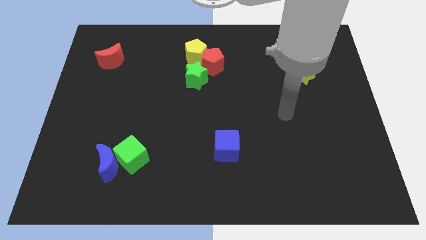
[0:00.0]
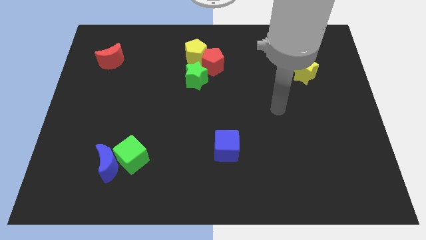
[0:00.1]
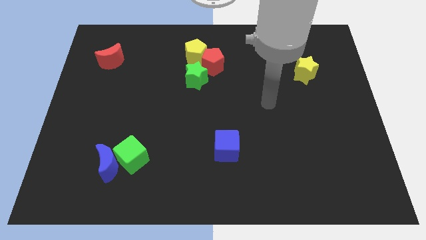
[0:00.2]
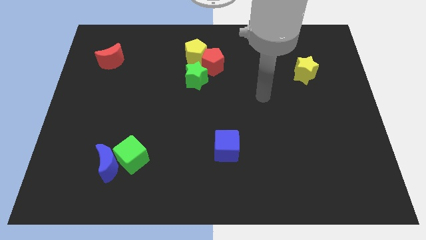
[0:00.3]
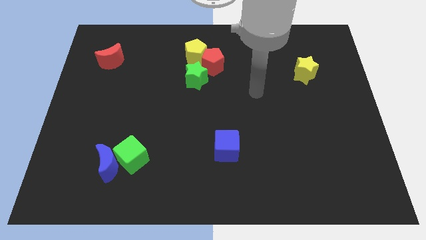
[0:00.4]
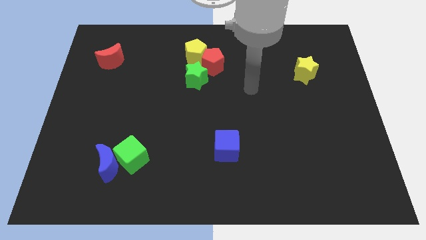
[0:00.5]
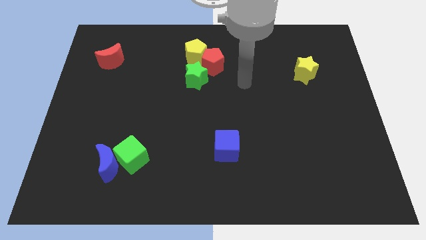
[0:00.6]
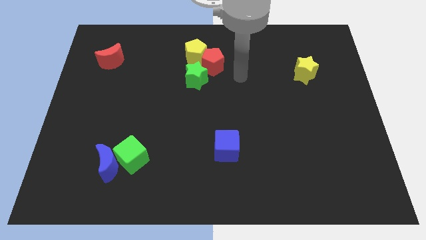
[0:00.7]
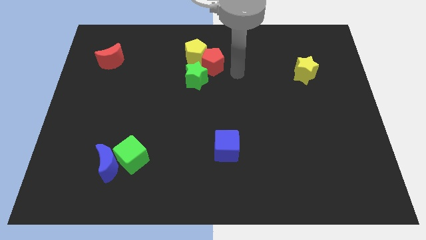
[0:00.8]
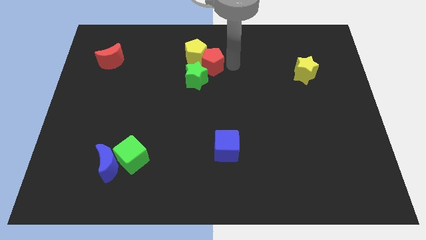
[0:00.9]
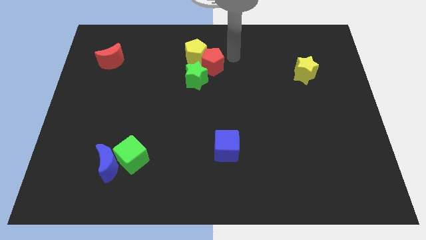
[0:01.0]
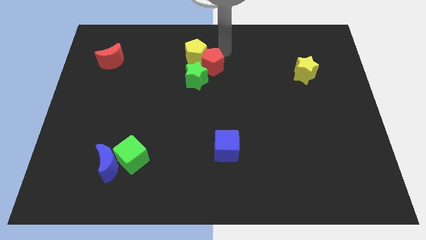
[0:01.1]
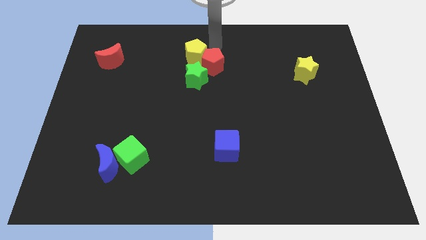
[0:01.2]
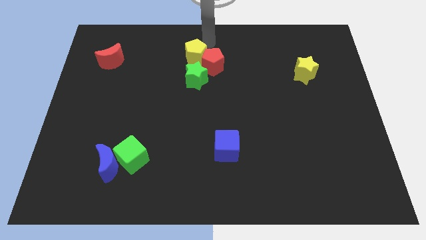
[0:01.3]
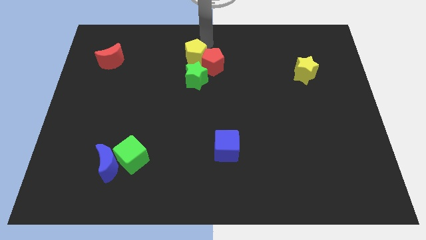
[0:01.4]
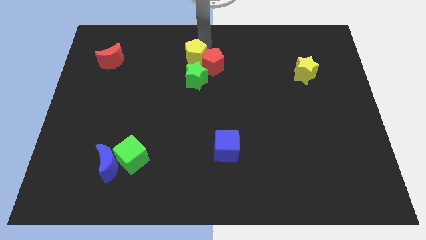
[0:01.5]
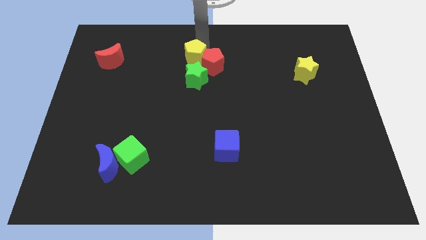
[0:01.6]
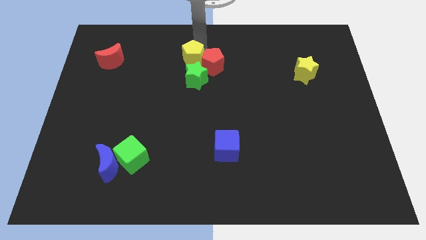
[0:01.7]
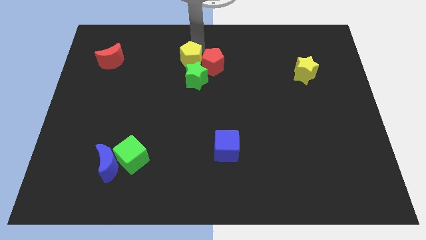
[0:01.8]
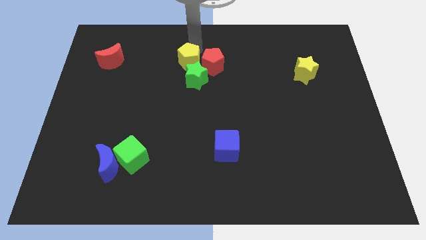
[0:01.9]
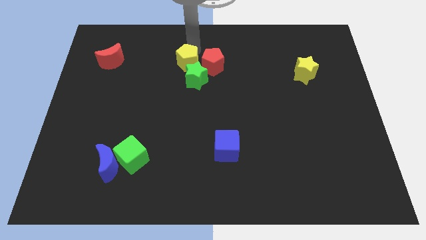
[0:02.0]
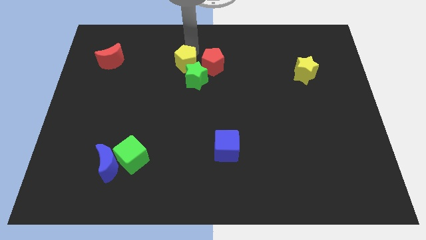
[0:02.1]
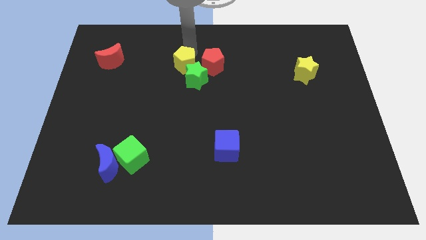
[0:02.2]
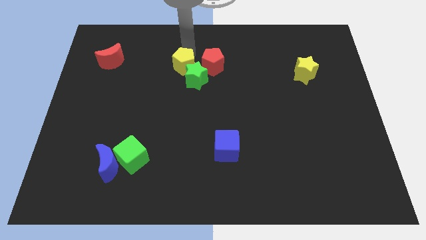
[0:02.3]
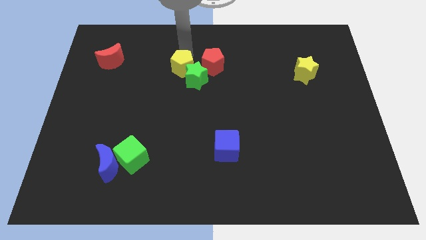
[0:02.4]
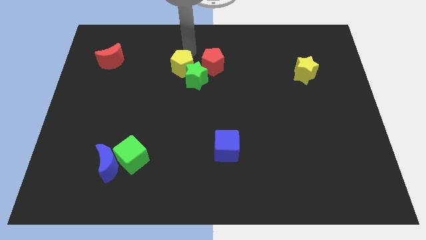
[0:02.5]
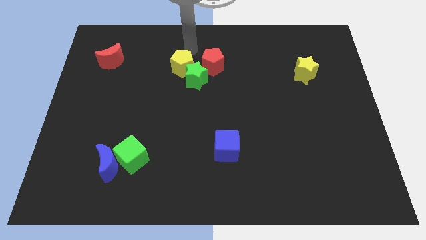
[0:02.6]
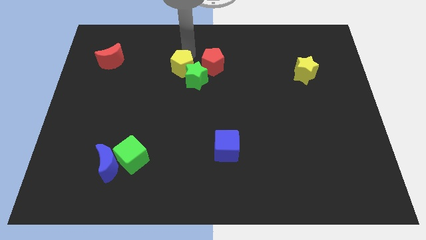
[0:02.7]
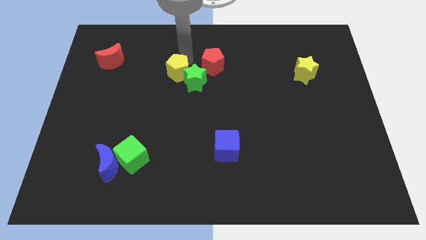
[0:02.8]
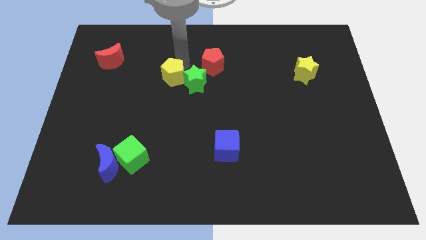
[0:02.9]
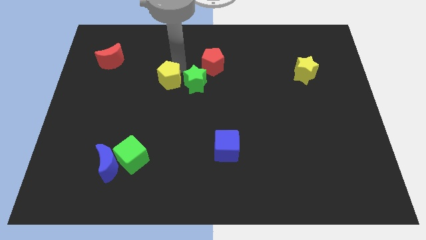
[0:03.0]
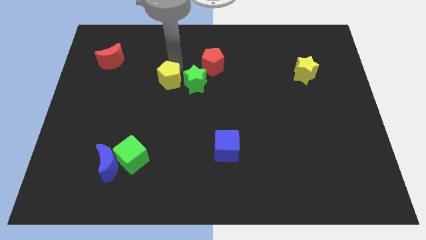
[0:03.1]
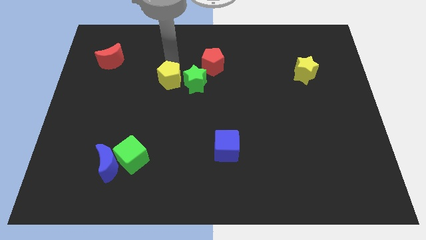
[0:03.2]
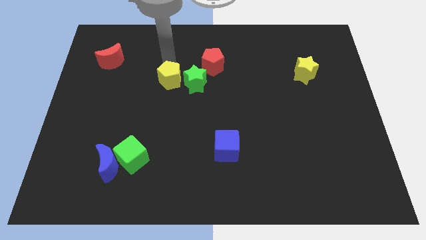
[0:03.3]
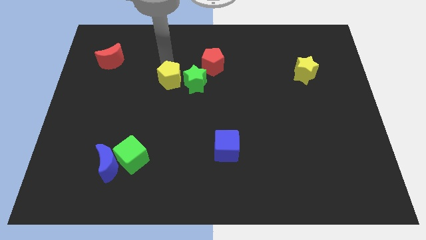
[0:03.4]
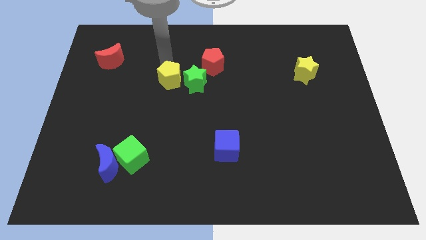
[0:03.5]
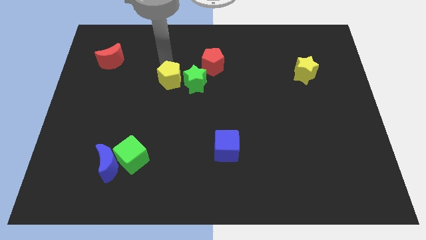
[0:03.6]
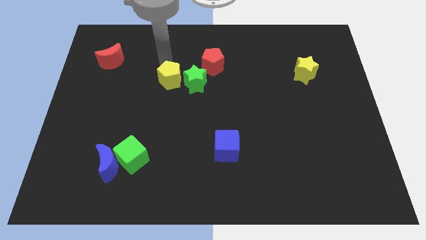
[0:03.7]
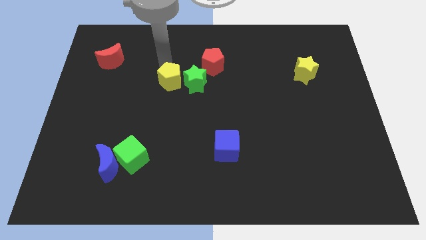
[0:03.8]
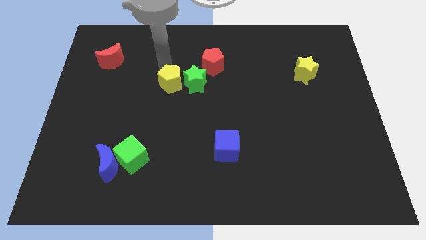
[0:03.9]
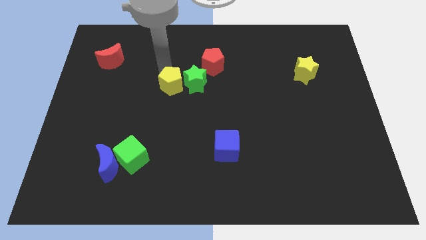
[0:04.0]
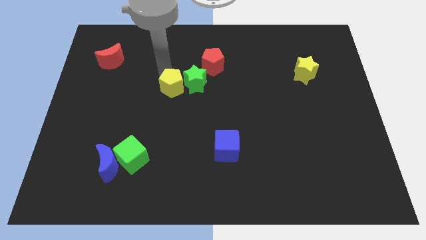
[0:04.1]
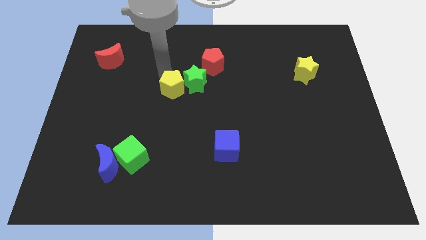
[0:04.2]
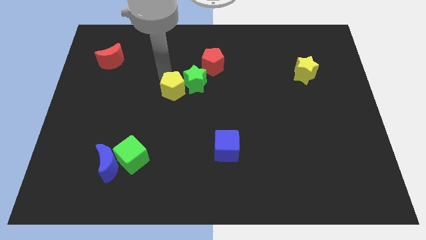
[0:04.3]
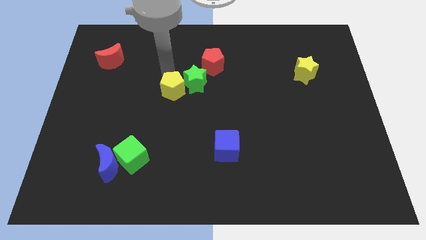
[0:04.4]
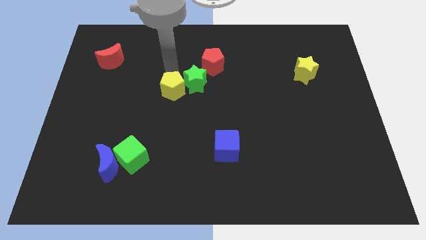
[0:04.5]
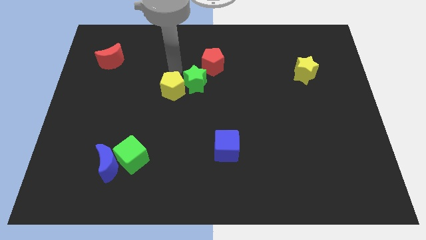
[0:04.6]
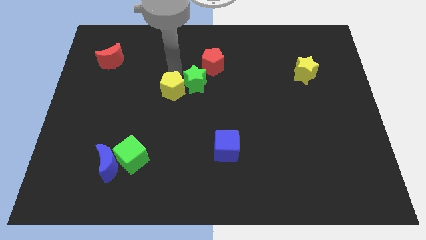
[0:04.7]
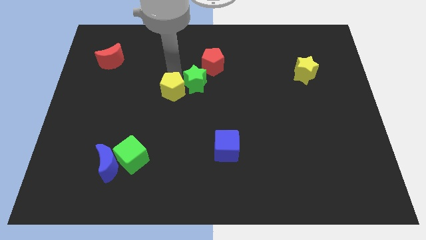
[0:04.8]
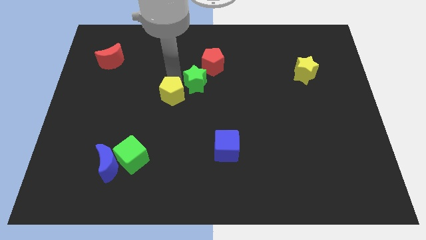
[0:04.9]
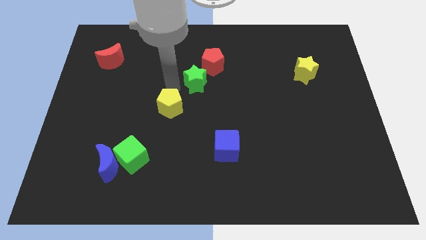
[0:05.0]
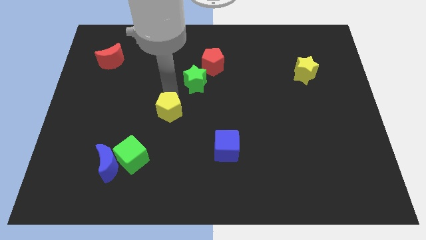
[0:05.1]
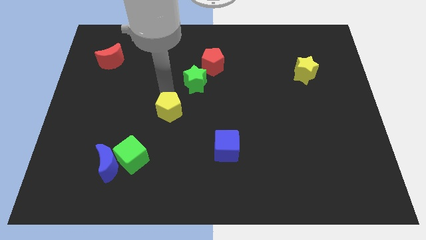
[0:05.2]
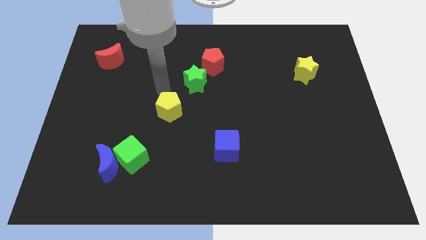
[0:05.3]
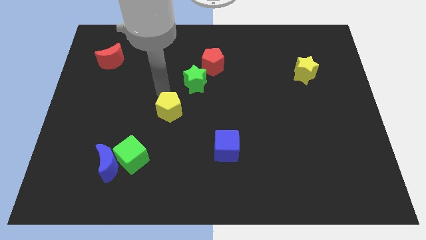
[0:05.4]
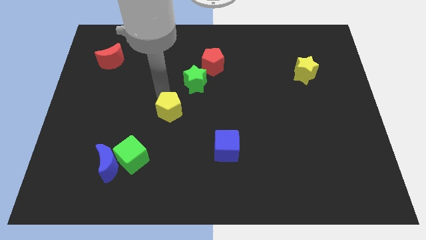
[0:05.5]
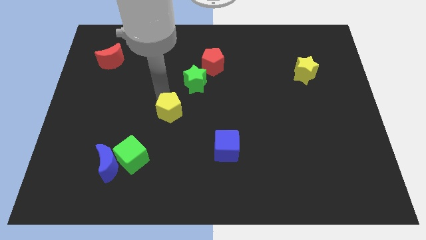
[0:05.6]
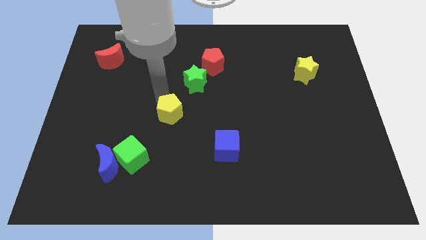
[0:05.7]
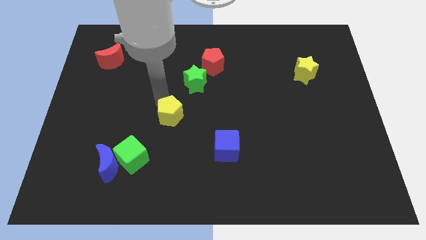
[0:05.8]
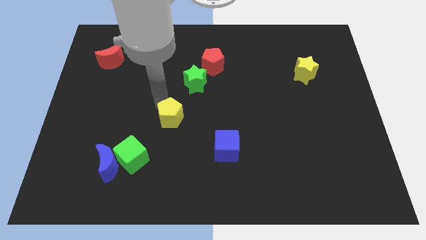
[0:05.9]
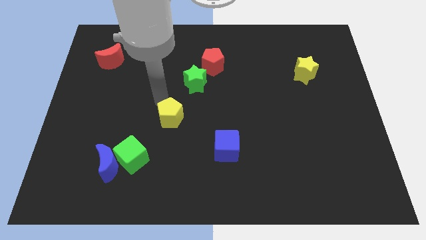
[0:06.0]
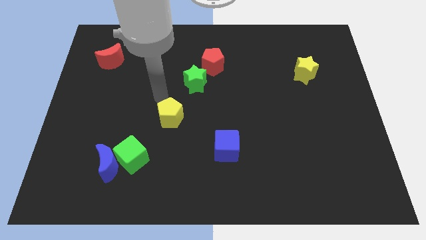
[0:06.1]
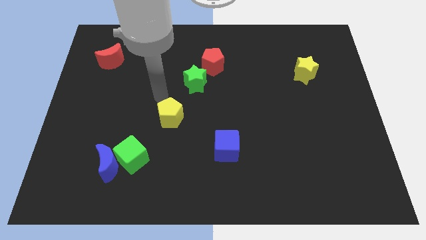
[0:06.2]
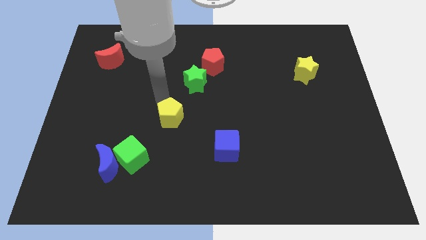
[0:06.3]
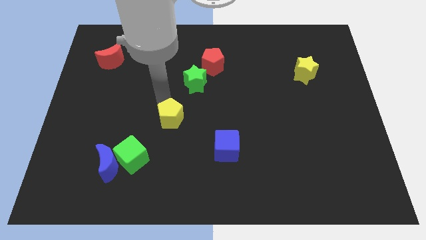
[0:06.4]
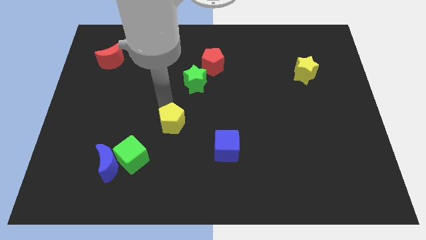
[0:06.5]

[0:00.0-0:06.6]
slide the yellow pentagon downwards

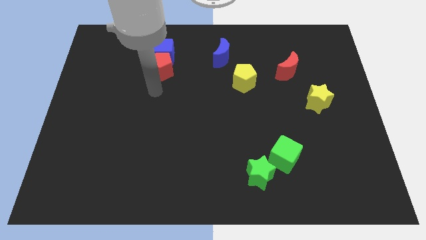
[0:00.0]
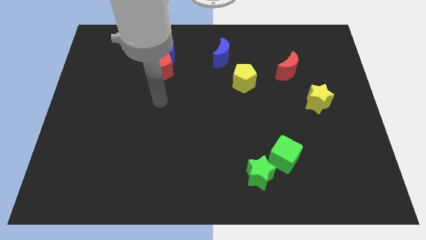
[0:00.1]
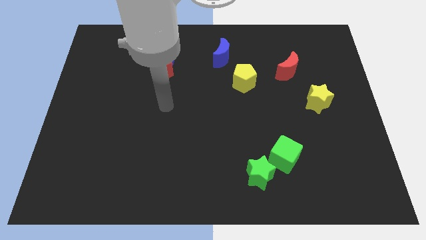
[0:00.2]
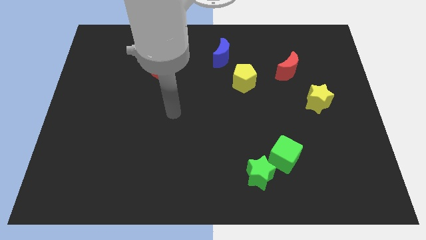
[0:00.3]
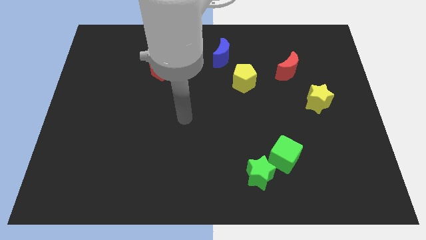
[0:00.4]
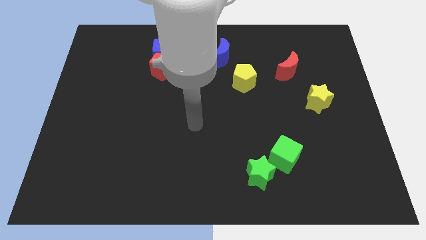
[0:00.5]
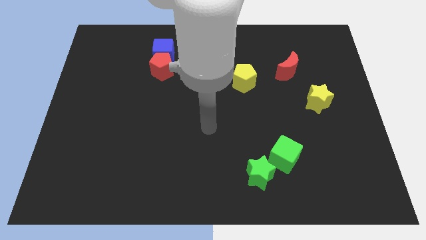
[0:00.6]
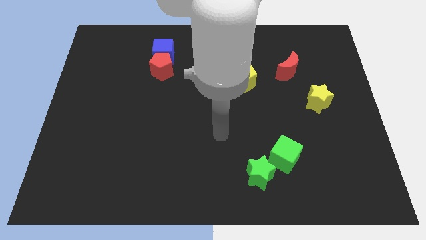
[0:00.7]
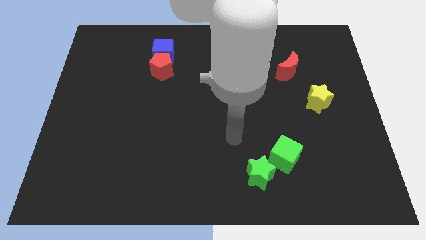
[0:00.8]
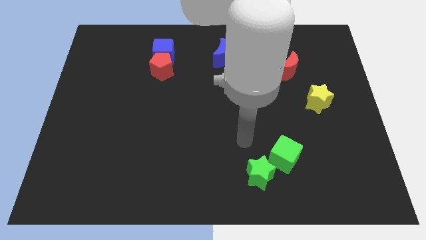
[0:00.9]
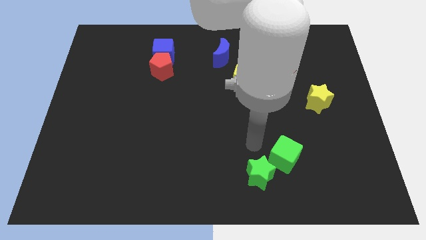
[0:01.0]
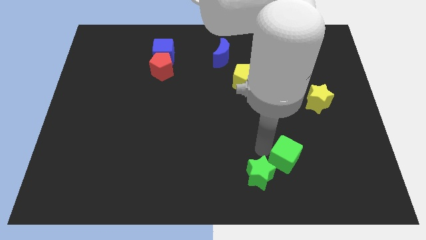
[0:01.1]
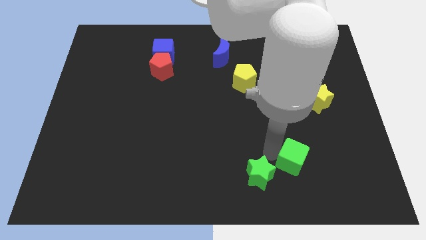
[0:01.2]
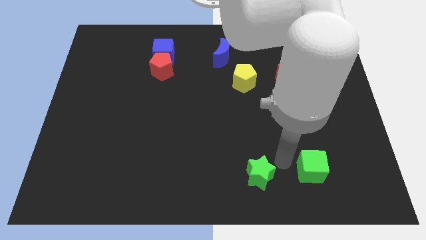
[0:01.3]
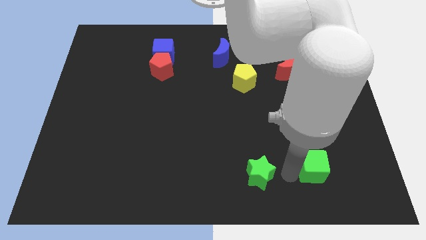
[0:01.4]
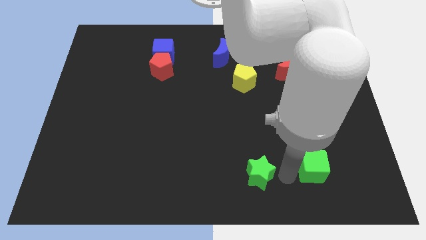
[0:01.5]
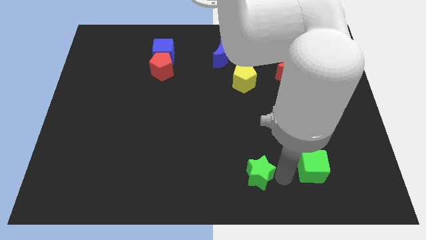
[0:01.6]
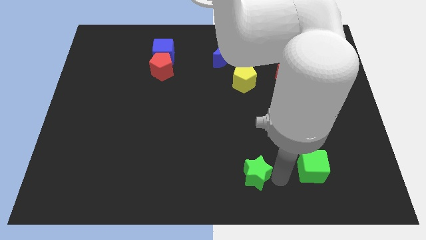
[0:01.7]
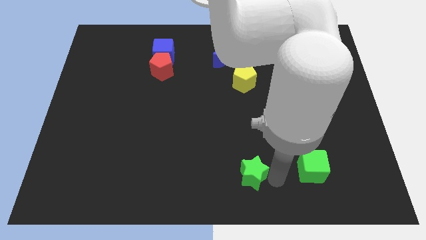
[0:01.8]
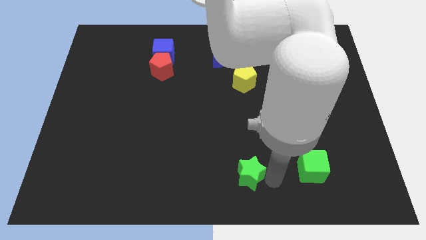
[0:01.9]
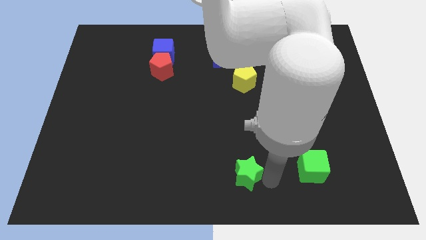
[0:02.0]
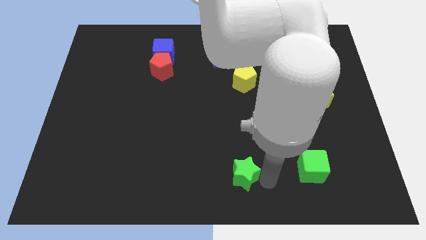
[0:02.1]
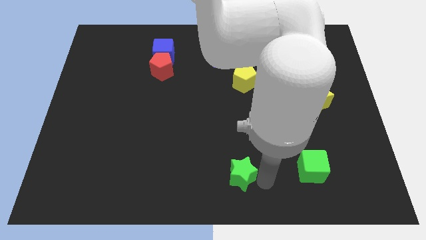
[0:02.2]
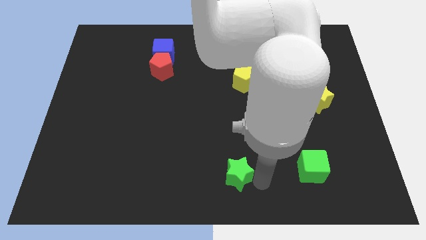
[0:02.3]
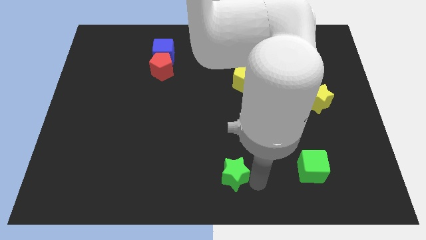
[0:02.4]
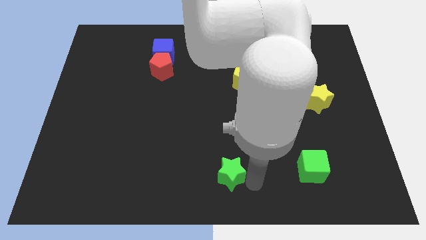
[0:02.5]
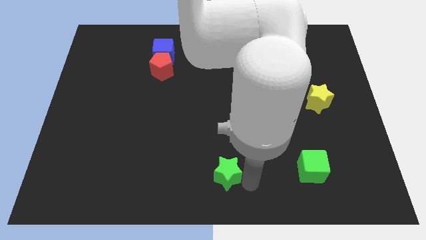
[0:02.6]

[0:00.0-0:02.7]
move the green star a little to the left
